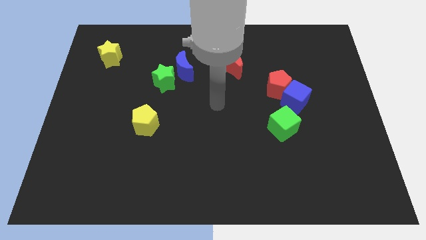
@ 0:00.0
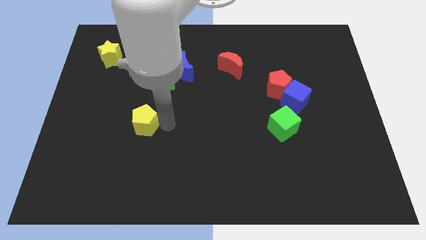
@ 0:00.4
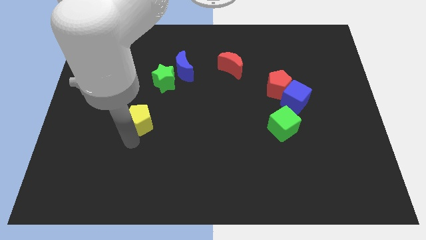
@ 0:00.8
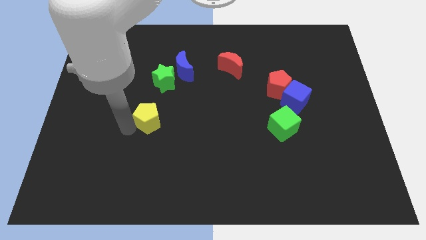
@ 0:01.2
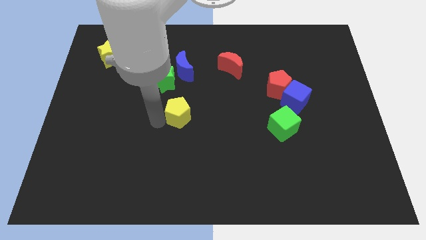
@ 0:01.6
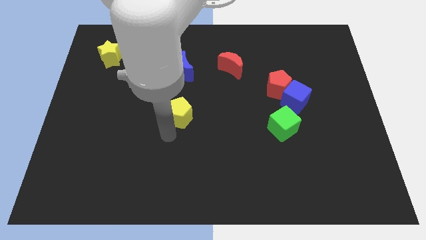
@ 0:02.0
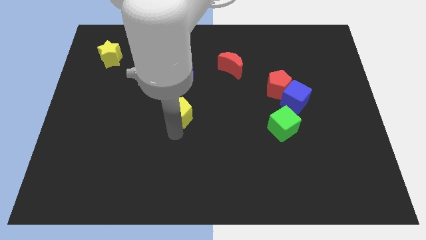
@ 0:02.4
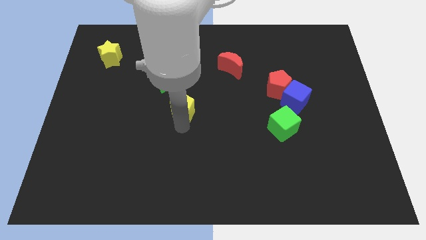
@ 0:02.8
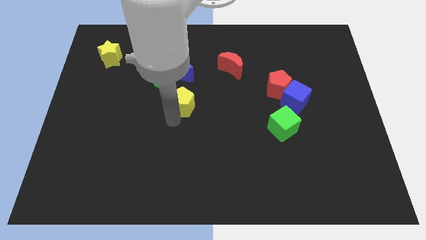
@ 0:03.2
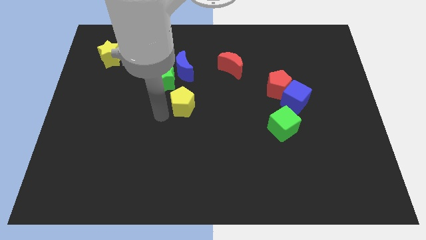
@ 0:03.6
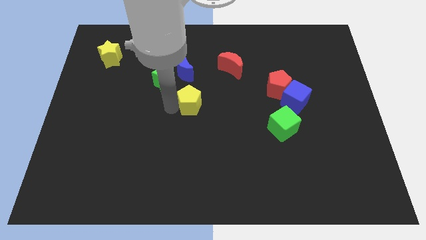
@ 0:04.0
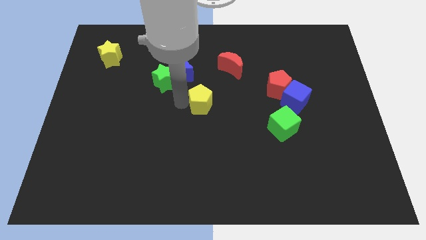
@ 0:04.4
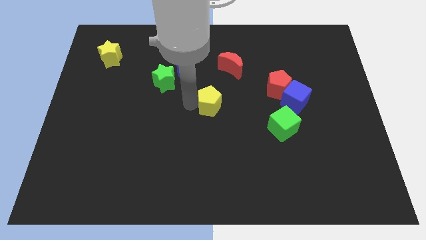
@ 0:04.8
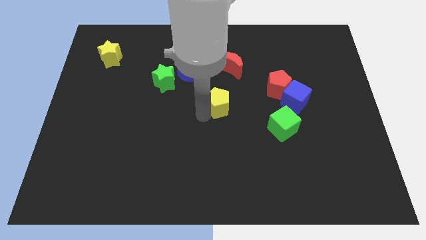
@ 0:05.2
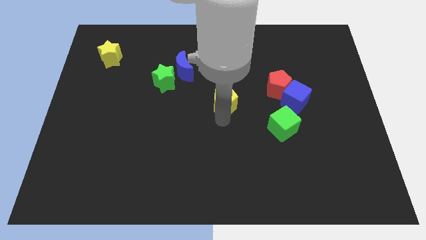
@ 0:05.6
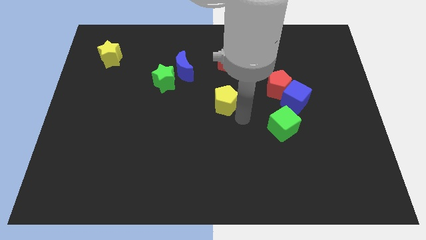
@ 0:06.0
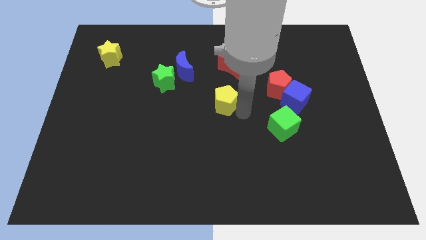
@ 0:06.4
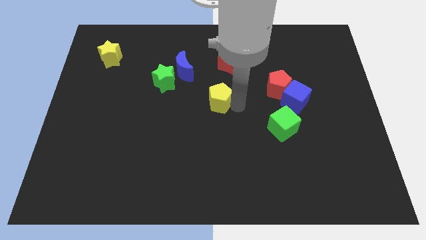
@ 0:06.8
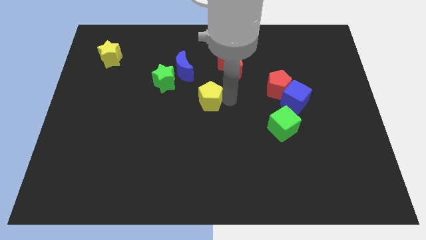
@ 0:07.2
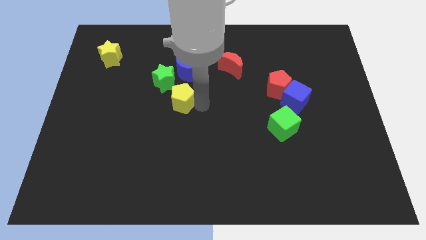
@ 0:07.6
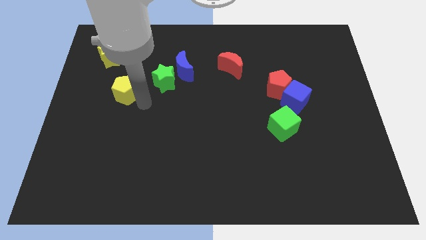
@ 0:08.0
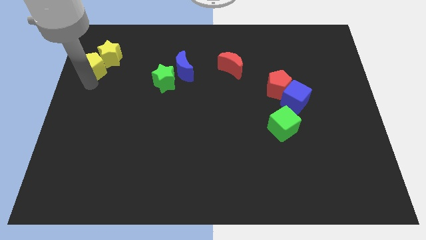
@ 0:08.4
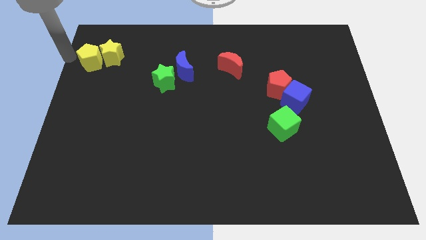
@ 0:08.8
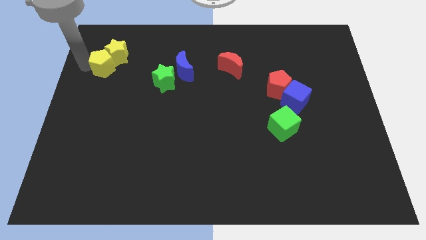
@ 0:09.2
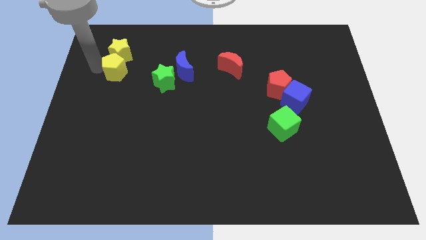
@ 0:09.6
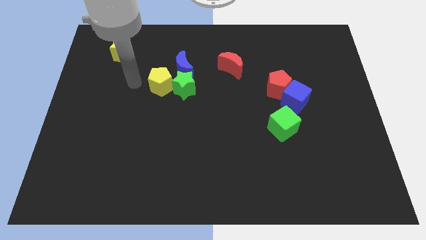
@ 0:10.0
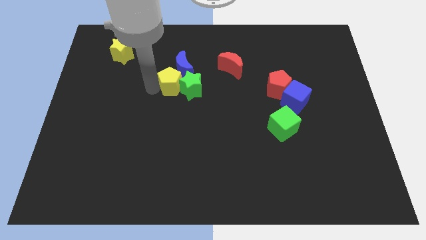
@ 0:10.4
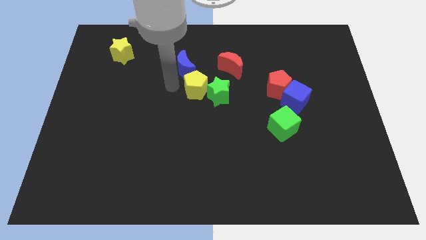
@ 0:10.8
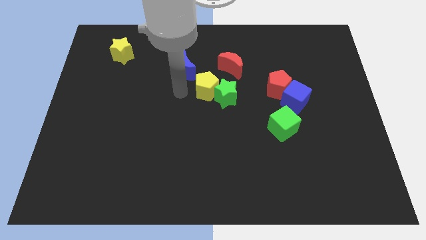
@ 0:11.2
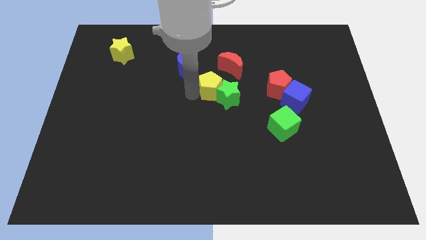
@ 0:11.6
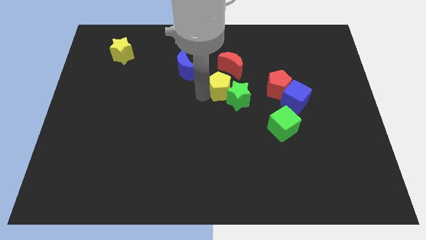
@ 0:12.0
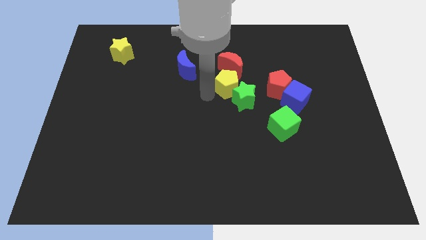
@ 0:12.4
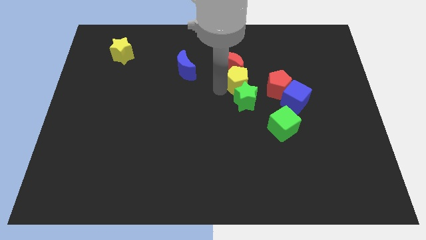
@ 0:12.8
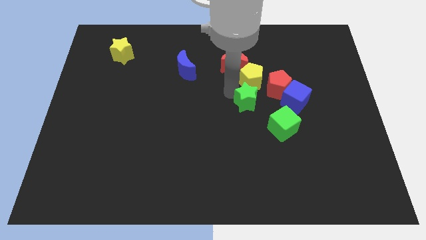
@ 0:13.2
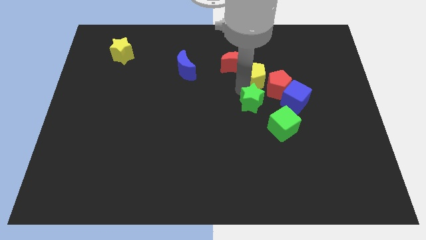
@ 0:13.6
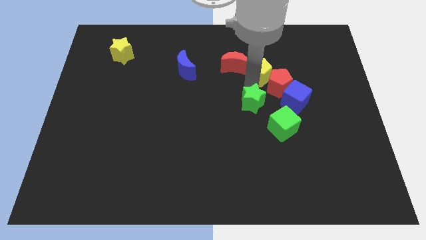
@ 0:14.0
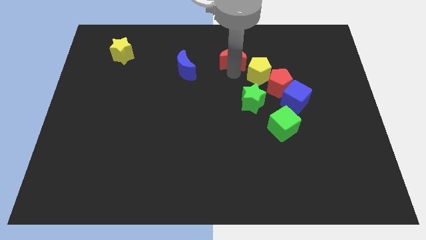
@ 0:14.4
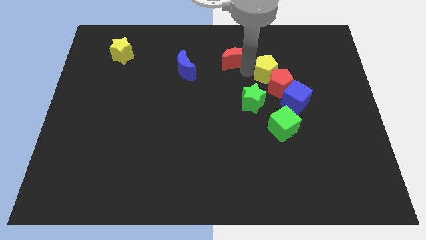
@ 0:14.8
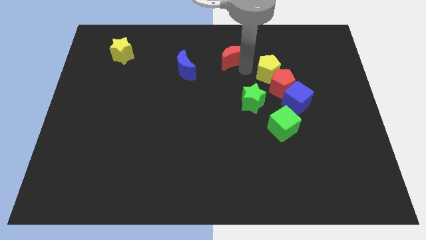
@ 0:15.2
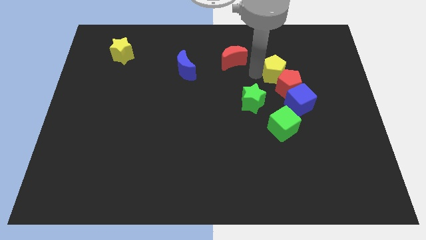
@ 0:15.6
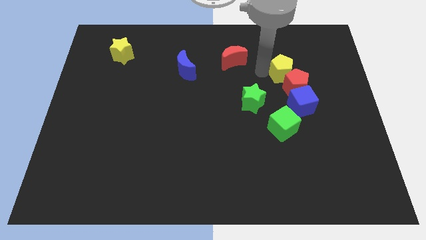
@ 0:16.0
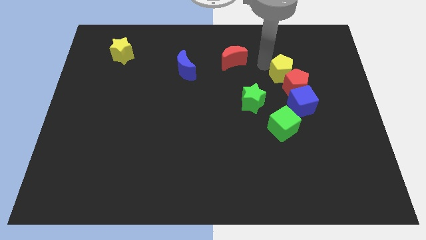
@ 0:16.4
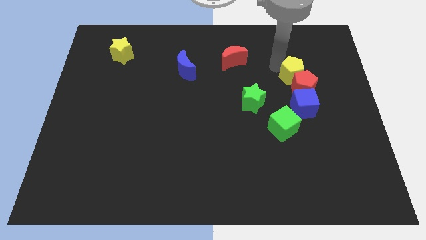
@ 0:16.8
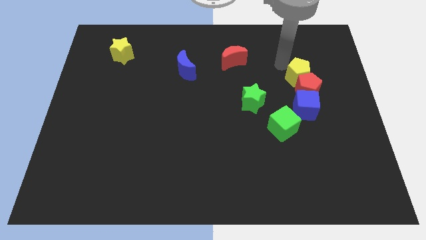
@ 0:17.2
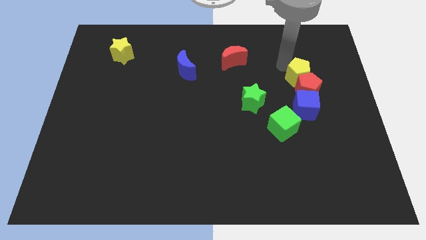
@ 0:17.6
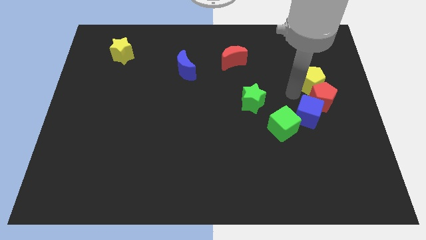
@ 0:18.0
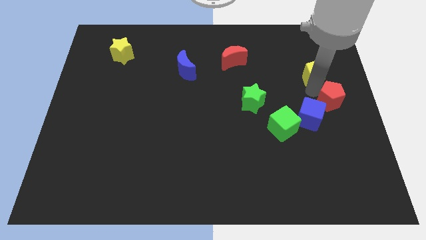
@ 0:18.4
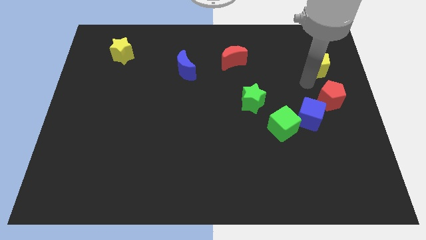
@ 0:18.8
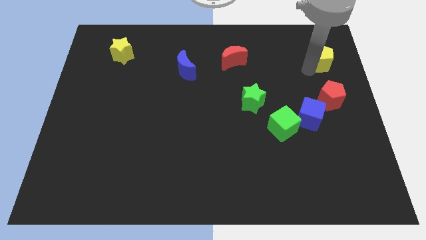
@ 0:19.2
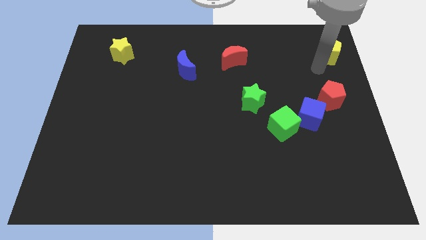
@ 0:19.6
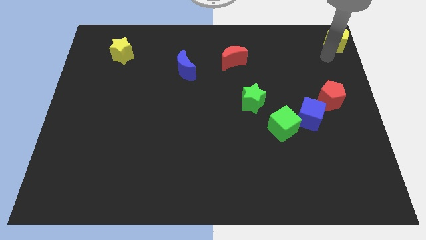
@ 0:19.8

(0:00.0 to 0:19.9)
slide the yellow pentagon to the top right of the board

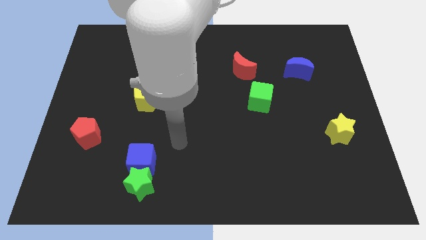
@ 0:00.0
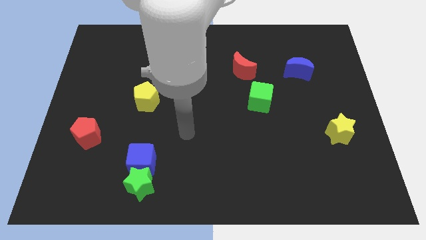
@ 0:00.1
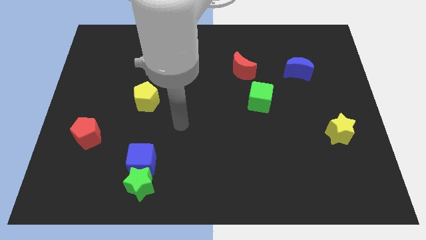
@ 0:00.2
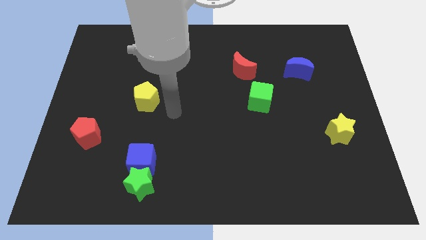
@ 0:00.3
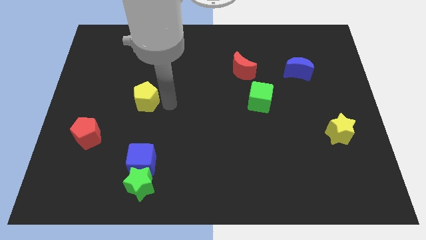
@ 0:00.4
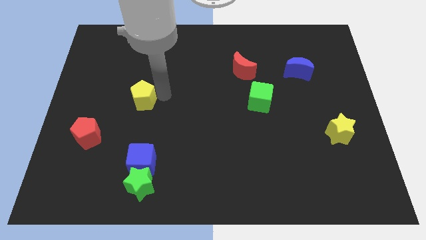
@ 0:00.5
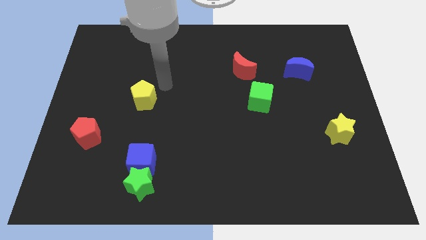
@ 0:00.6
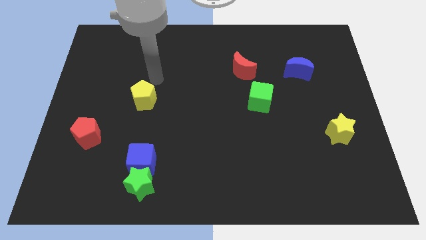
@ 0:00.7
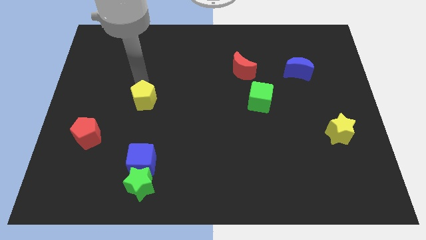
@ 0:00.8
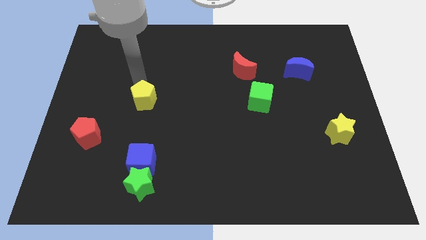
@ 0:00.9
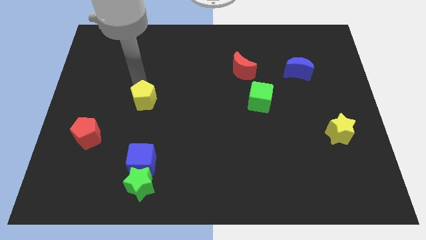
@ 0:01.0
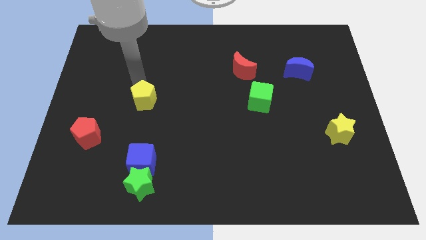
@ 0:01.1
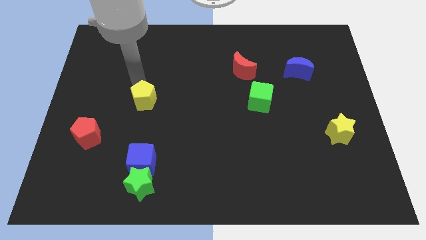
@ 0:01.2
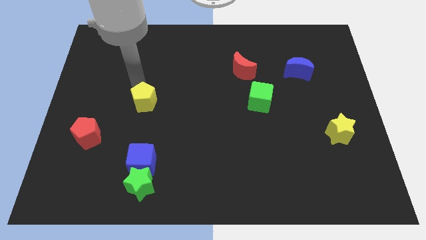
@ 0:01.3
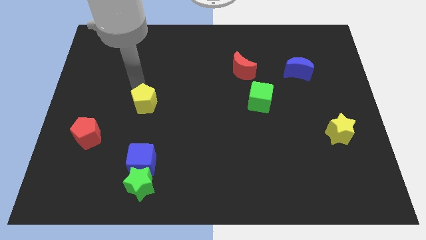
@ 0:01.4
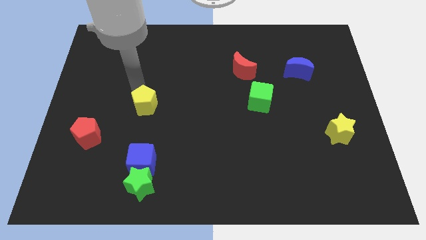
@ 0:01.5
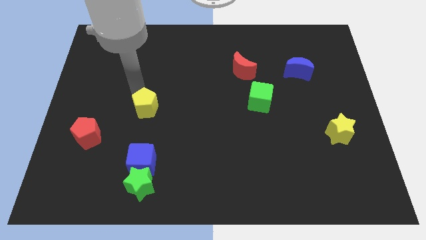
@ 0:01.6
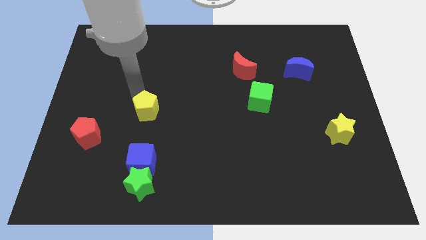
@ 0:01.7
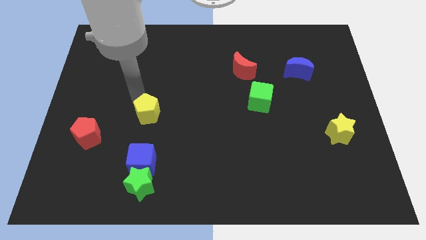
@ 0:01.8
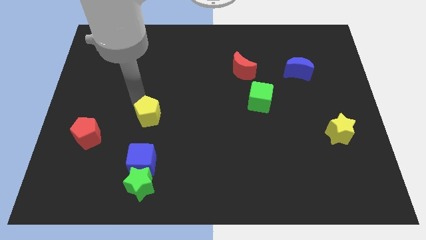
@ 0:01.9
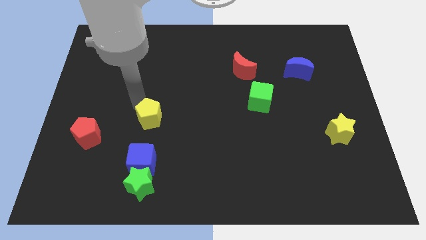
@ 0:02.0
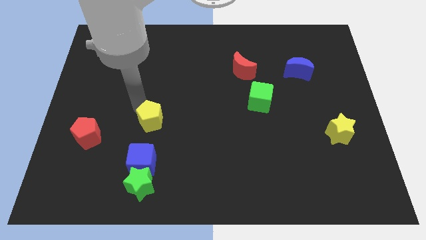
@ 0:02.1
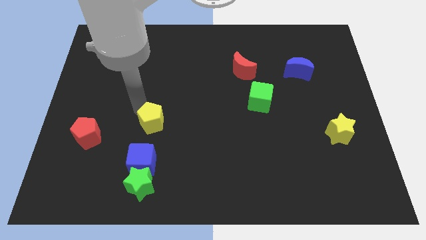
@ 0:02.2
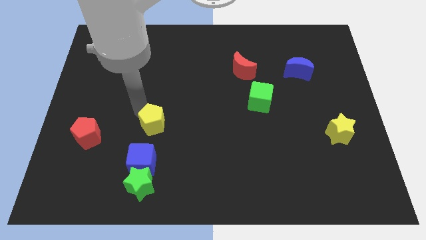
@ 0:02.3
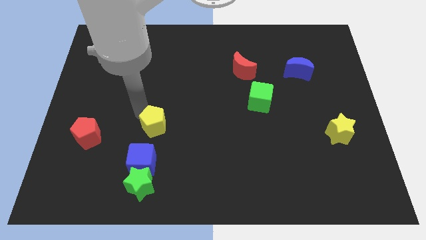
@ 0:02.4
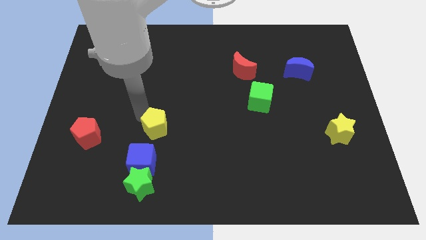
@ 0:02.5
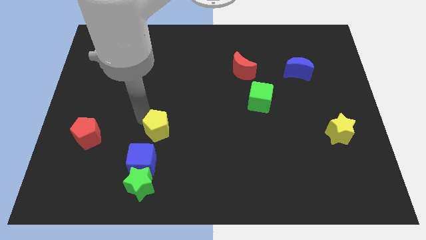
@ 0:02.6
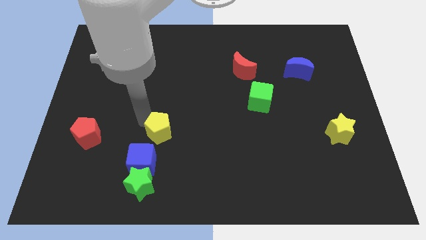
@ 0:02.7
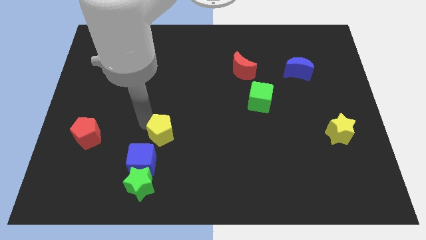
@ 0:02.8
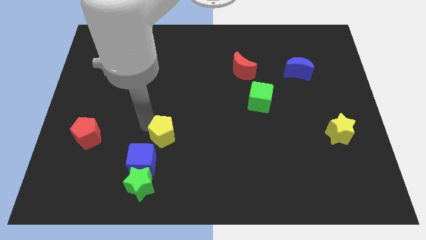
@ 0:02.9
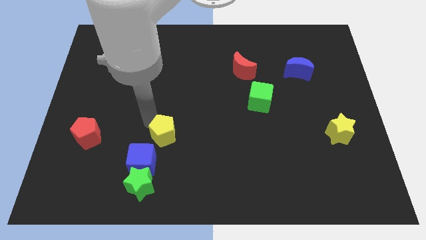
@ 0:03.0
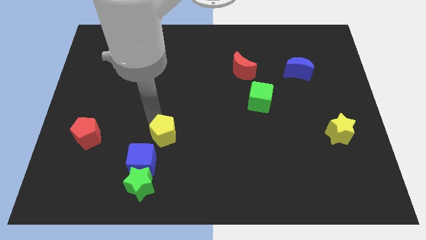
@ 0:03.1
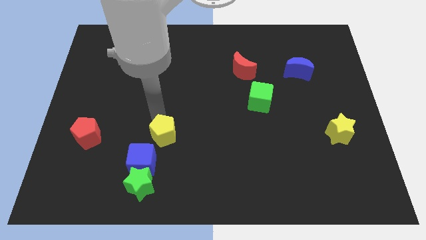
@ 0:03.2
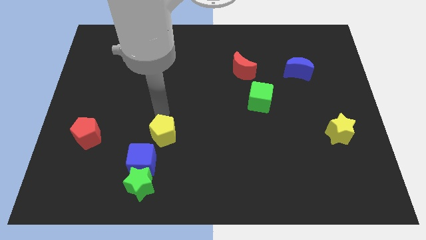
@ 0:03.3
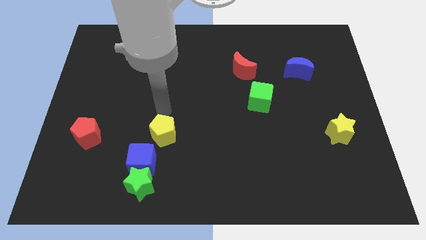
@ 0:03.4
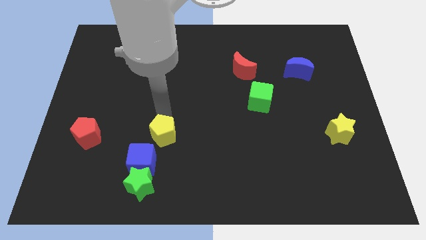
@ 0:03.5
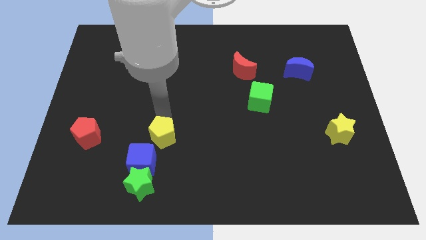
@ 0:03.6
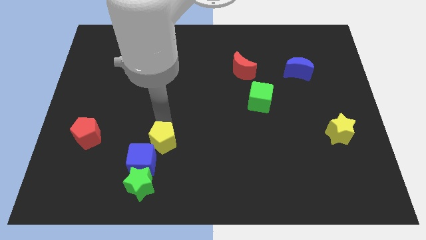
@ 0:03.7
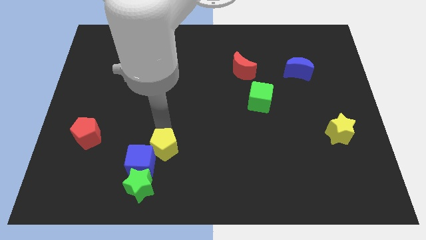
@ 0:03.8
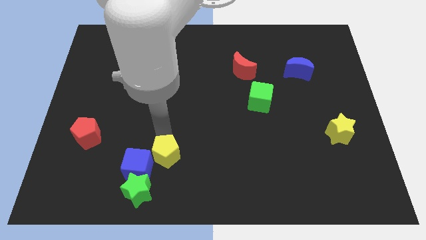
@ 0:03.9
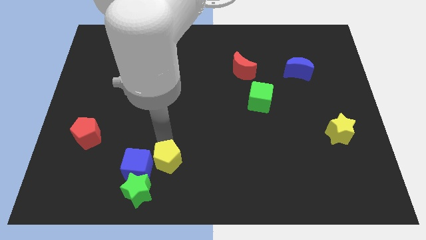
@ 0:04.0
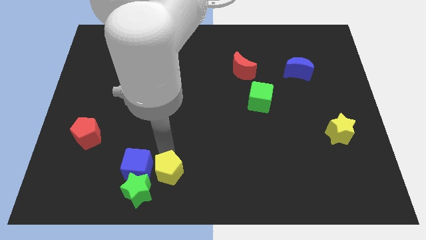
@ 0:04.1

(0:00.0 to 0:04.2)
move the yellow pentagon to the bottom
